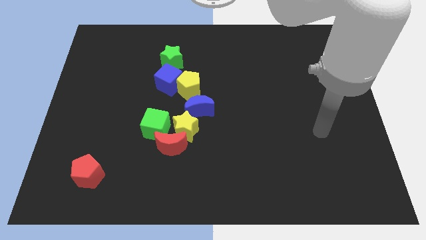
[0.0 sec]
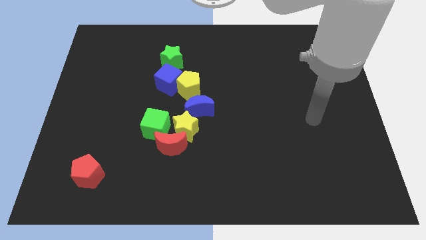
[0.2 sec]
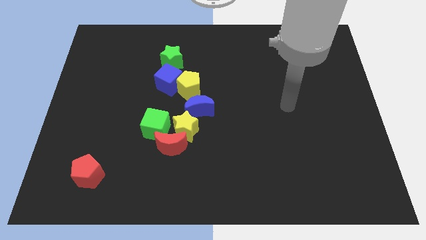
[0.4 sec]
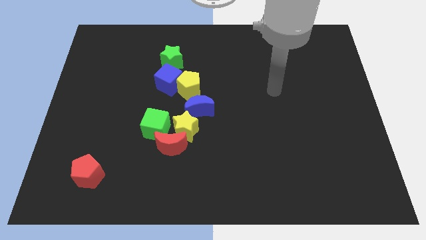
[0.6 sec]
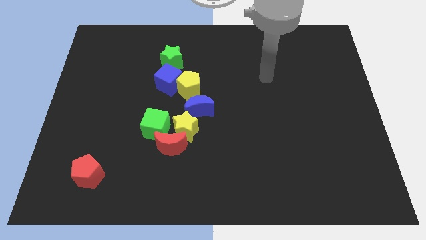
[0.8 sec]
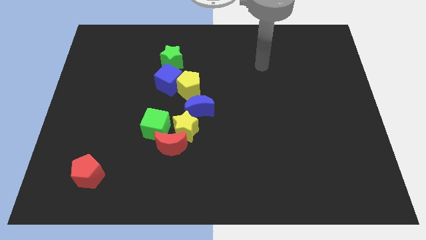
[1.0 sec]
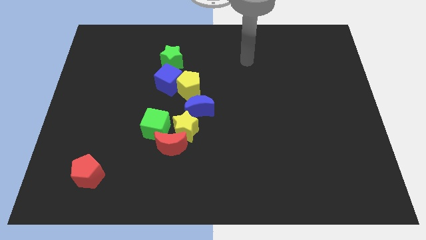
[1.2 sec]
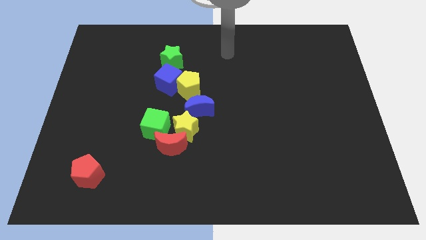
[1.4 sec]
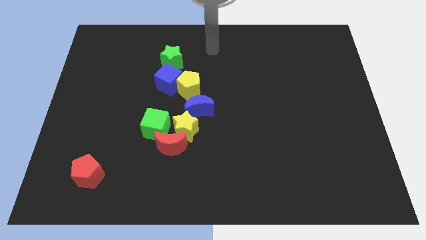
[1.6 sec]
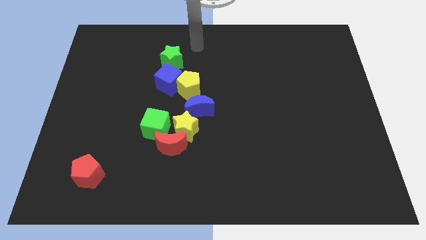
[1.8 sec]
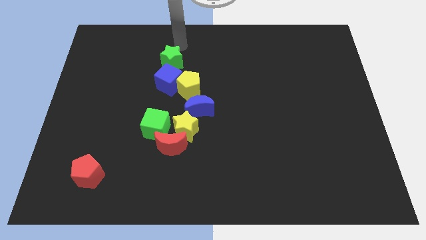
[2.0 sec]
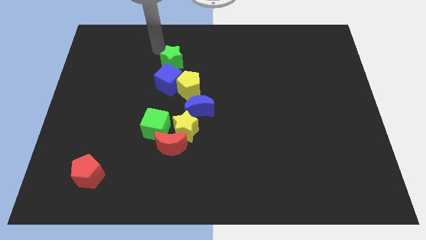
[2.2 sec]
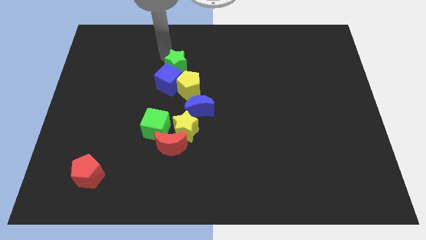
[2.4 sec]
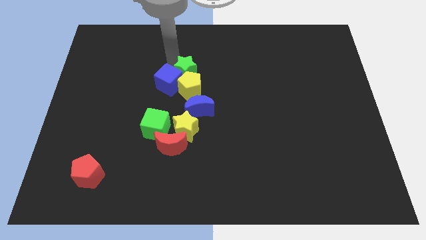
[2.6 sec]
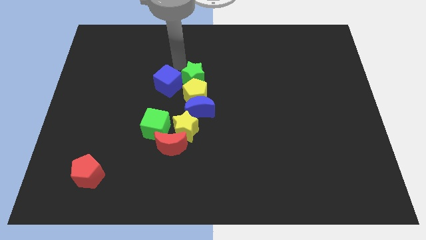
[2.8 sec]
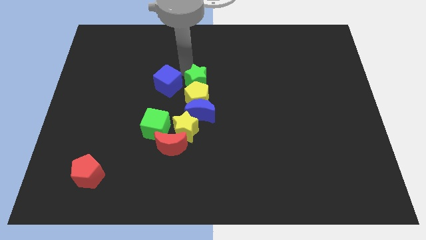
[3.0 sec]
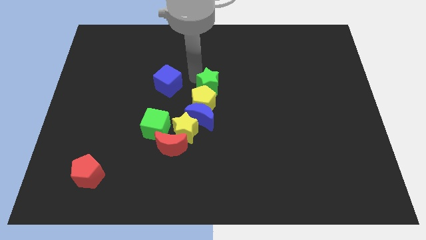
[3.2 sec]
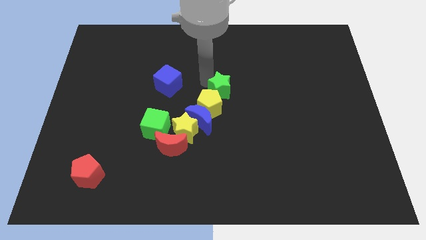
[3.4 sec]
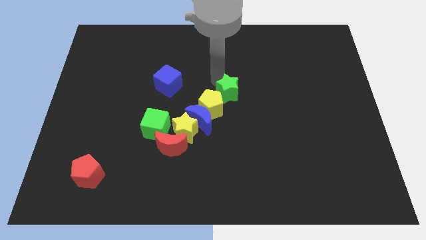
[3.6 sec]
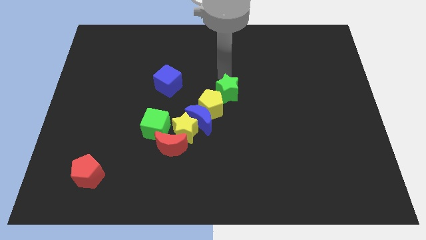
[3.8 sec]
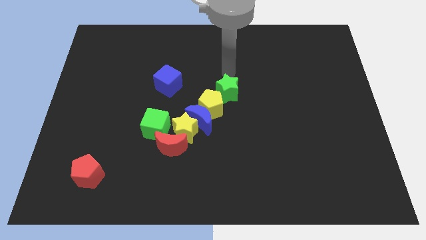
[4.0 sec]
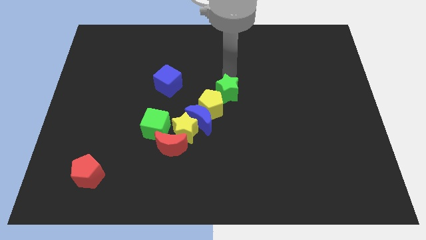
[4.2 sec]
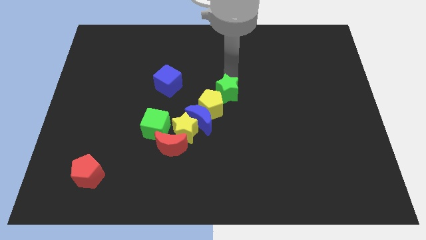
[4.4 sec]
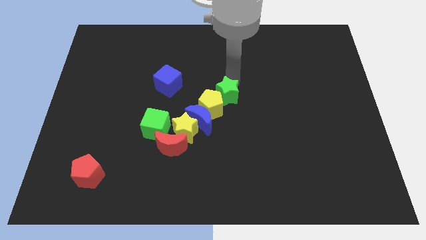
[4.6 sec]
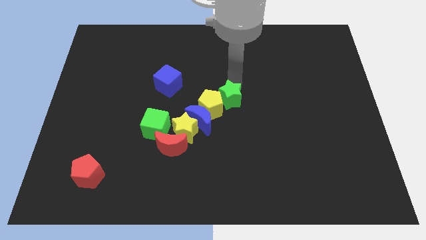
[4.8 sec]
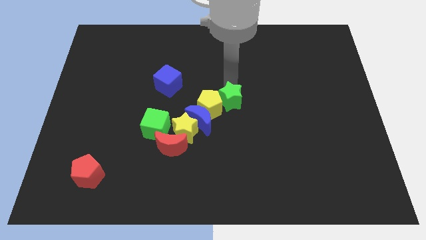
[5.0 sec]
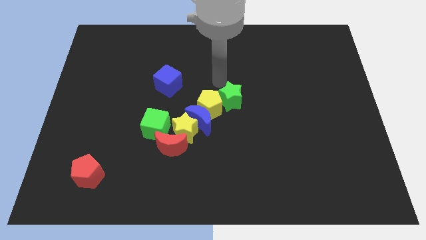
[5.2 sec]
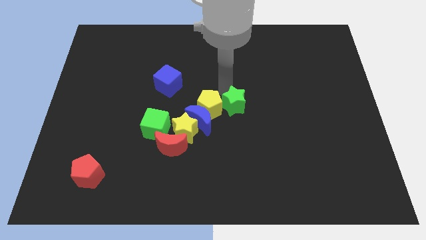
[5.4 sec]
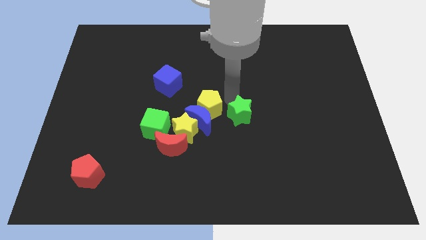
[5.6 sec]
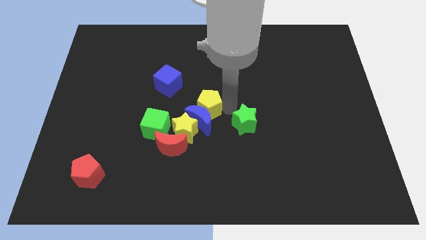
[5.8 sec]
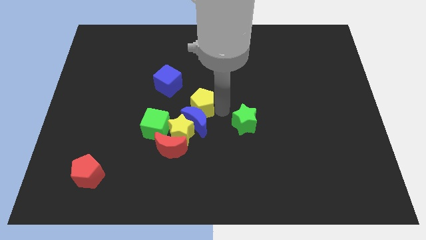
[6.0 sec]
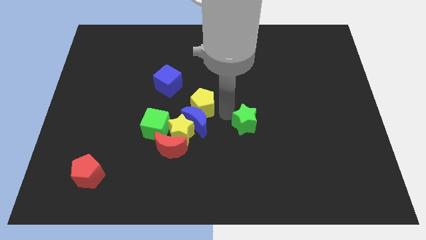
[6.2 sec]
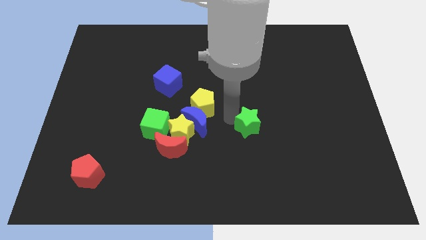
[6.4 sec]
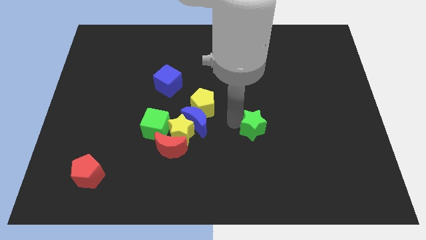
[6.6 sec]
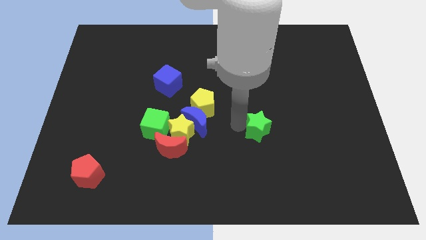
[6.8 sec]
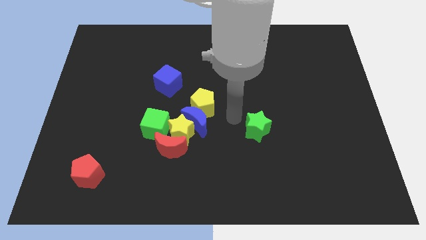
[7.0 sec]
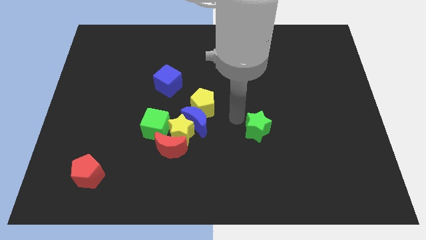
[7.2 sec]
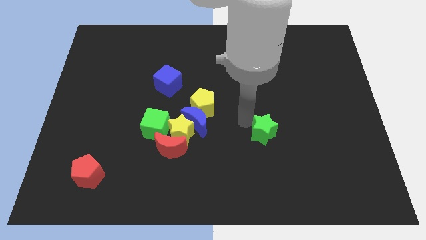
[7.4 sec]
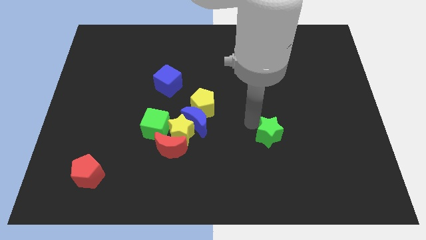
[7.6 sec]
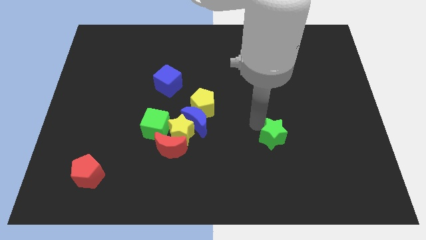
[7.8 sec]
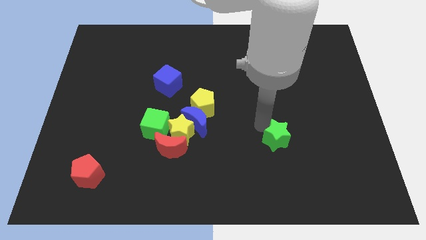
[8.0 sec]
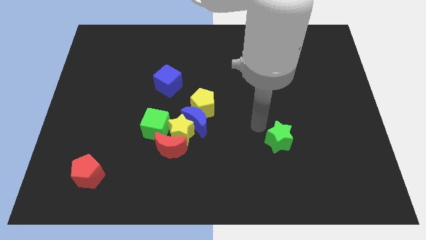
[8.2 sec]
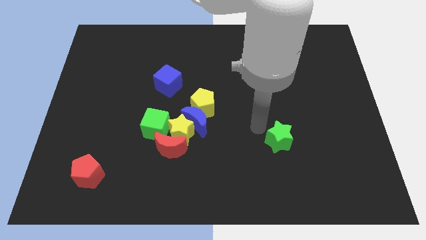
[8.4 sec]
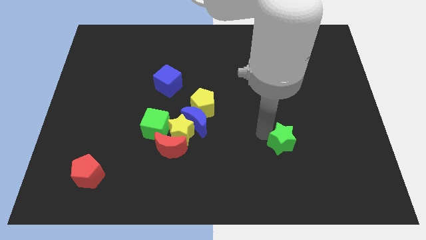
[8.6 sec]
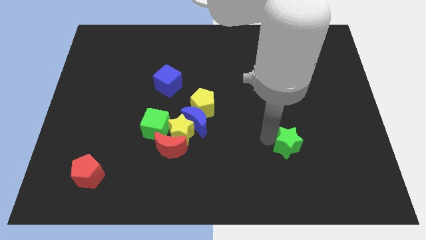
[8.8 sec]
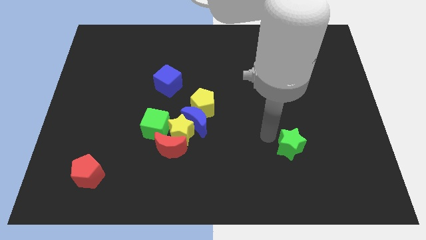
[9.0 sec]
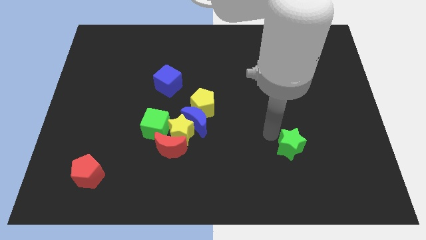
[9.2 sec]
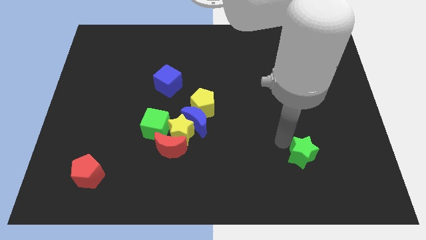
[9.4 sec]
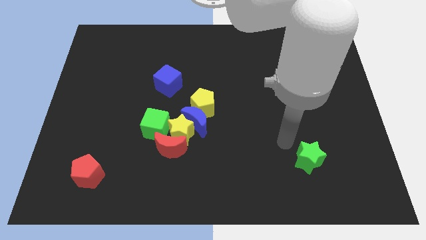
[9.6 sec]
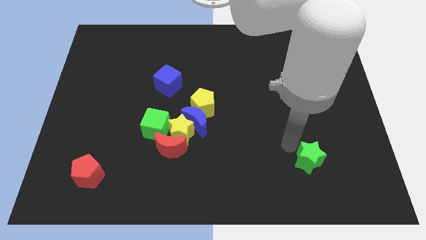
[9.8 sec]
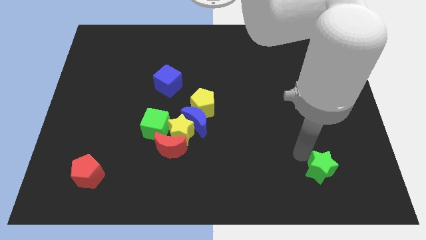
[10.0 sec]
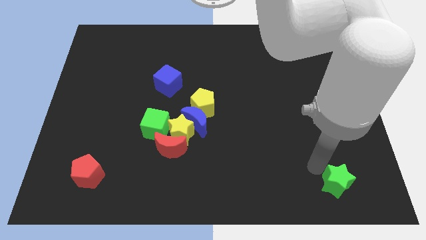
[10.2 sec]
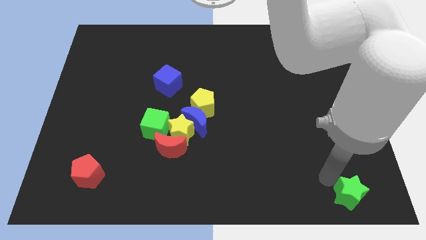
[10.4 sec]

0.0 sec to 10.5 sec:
slide the green star to the bottom right

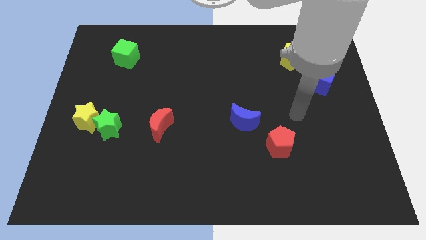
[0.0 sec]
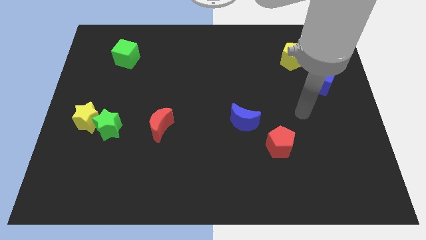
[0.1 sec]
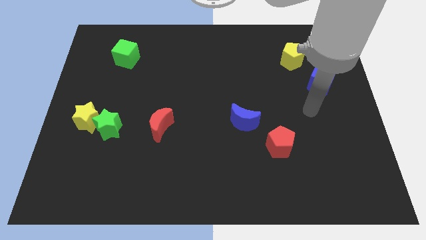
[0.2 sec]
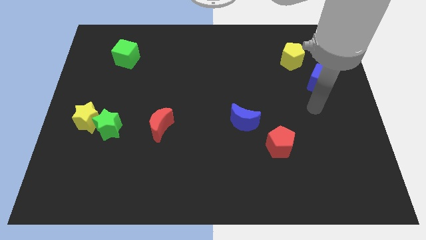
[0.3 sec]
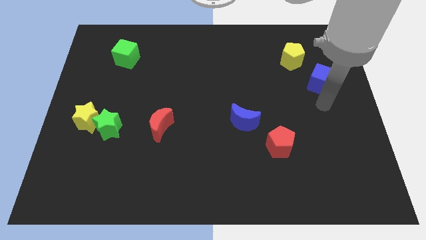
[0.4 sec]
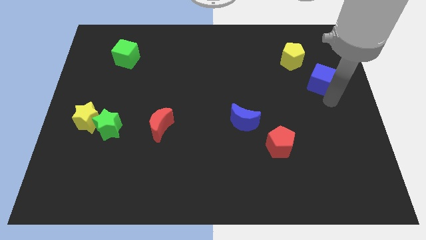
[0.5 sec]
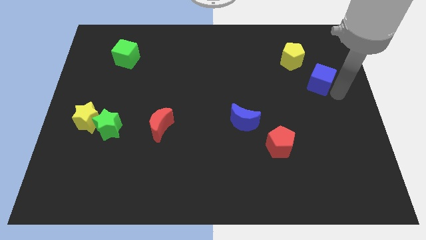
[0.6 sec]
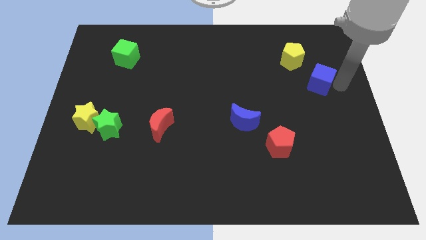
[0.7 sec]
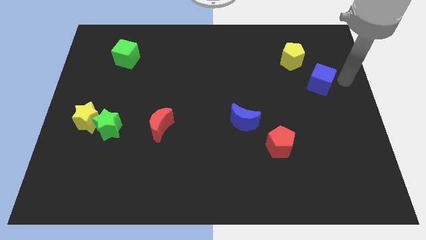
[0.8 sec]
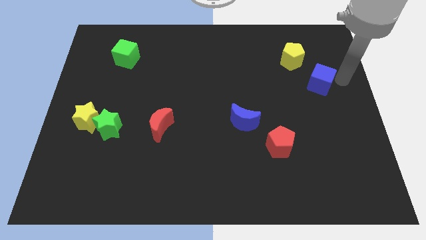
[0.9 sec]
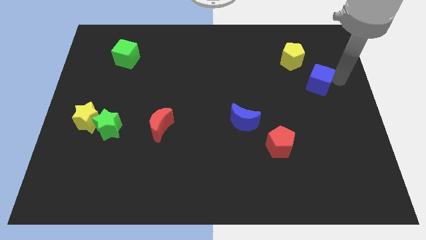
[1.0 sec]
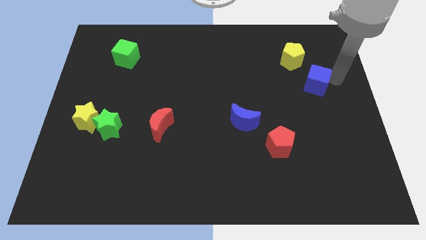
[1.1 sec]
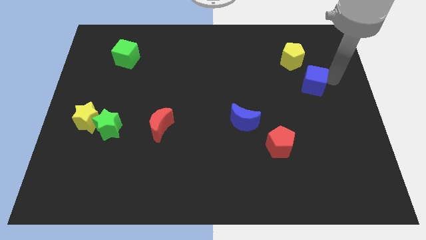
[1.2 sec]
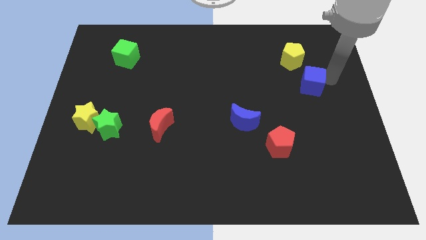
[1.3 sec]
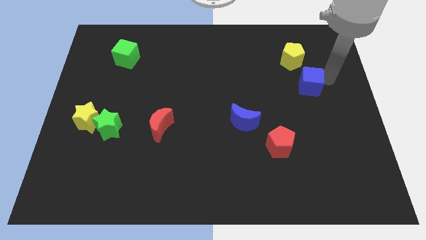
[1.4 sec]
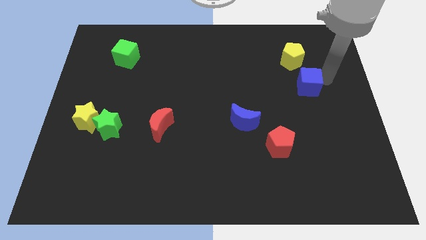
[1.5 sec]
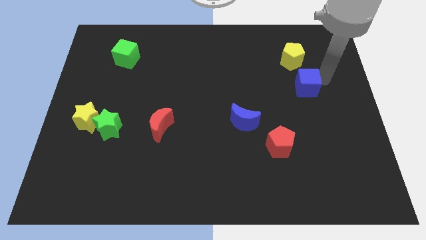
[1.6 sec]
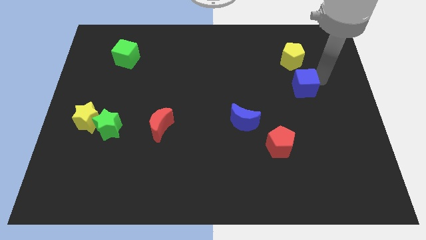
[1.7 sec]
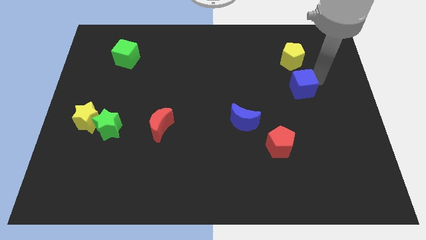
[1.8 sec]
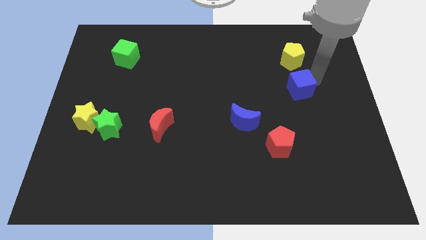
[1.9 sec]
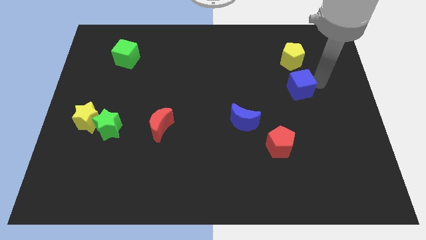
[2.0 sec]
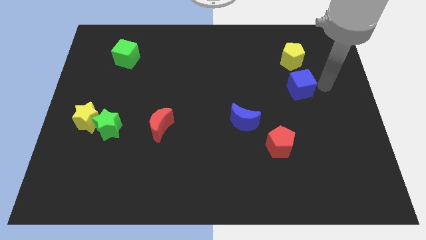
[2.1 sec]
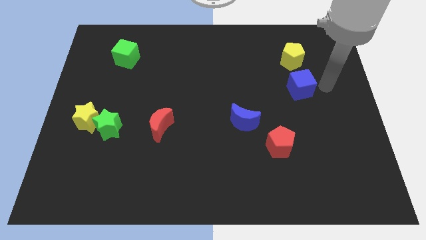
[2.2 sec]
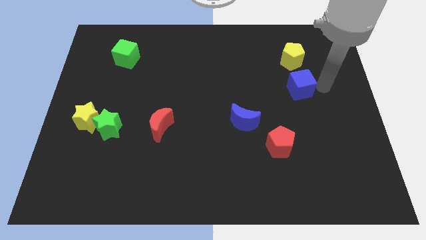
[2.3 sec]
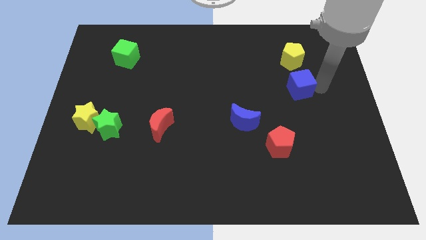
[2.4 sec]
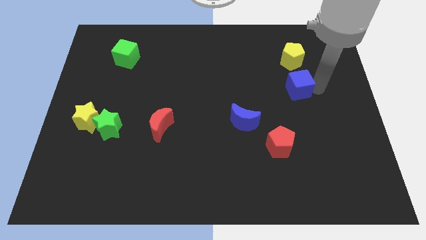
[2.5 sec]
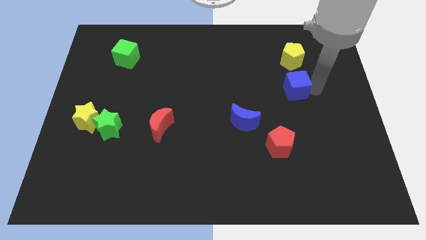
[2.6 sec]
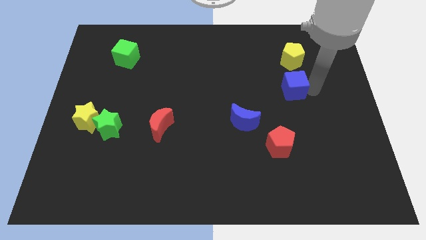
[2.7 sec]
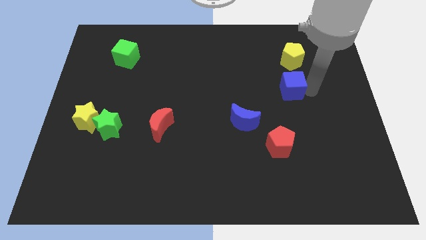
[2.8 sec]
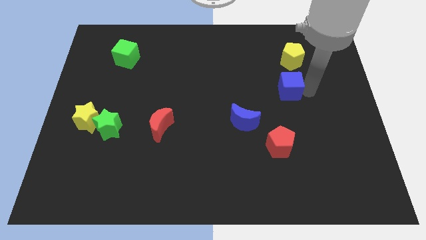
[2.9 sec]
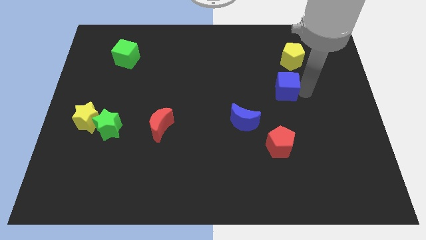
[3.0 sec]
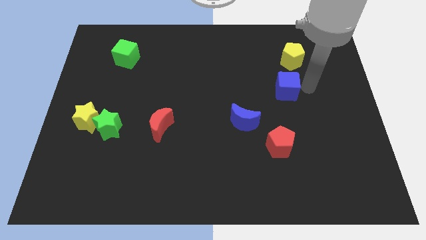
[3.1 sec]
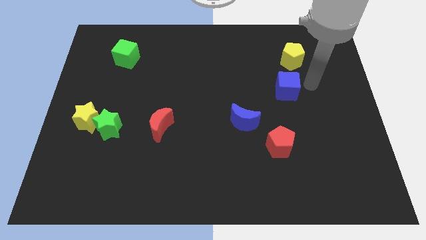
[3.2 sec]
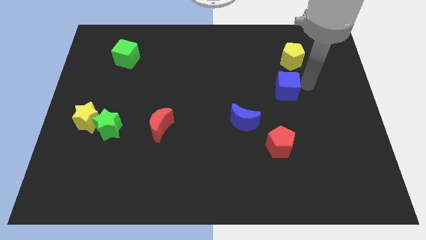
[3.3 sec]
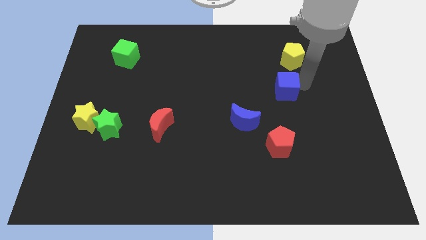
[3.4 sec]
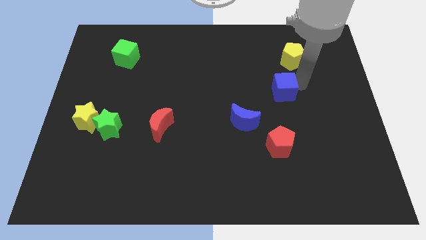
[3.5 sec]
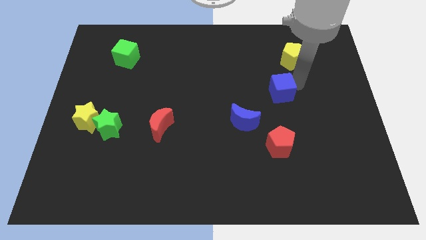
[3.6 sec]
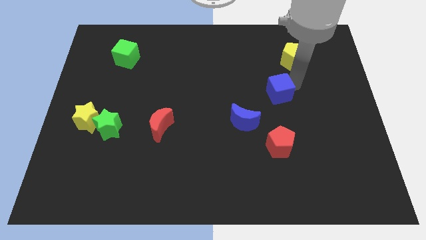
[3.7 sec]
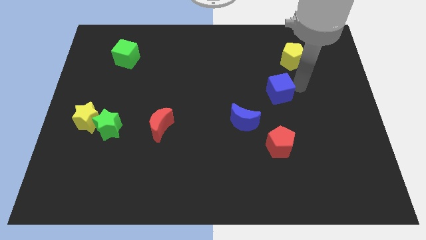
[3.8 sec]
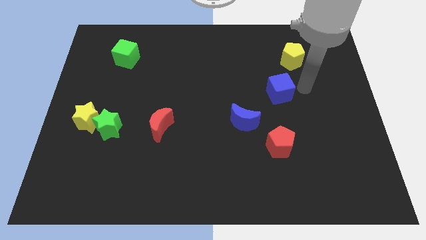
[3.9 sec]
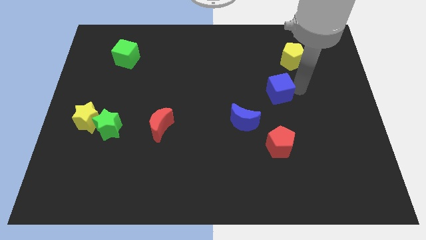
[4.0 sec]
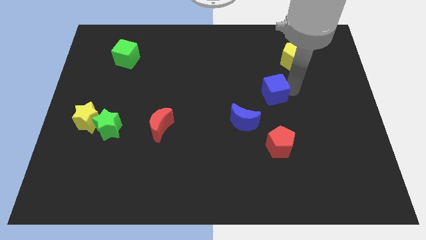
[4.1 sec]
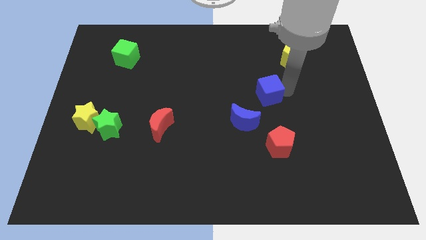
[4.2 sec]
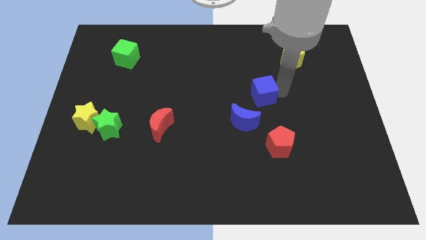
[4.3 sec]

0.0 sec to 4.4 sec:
move the blue cube to the middle
